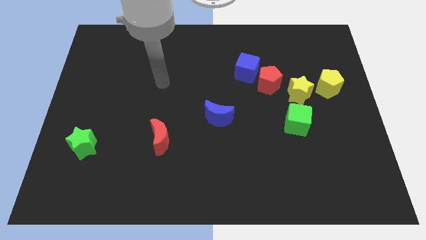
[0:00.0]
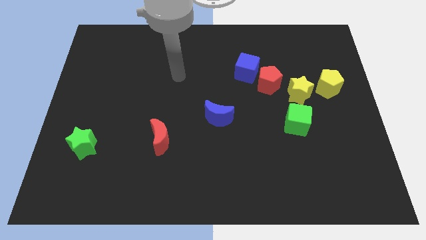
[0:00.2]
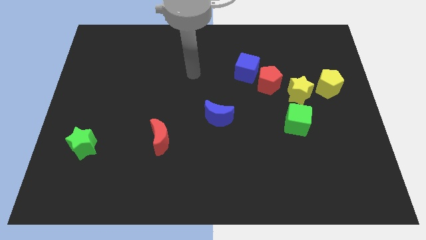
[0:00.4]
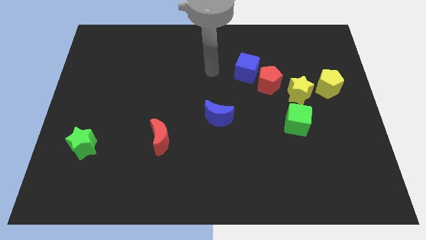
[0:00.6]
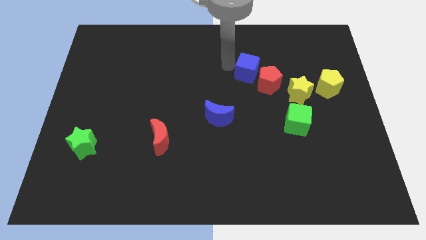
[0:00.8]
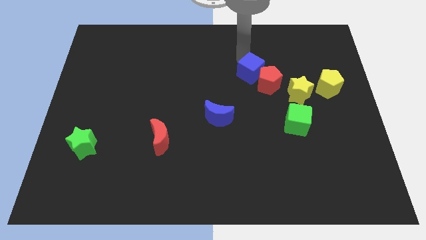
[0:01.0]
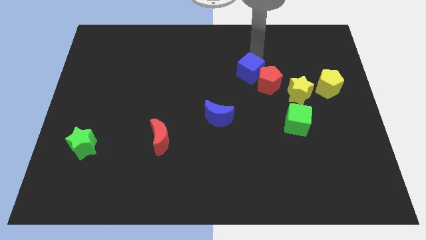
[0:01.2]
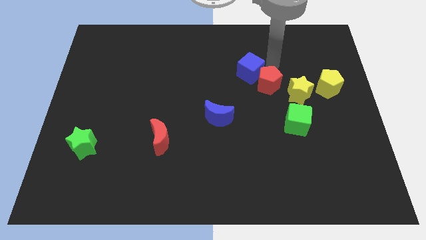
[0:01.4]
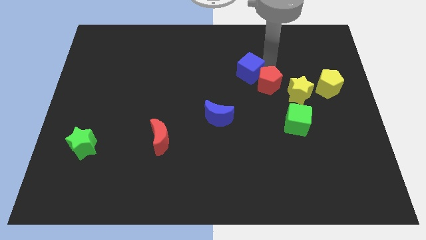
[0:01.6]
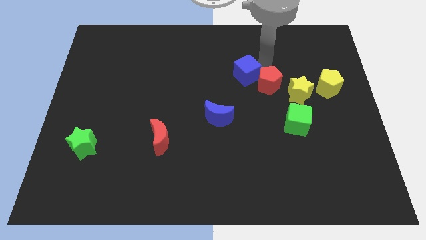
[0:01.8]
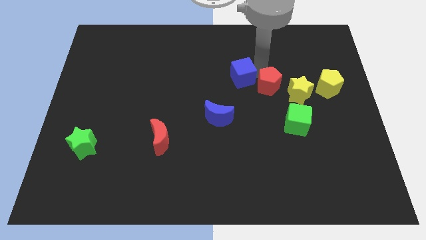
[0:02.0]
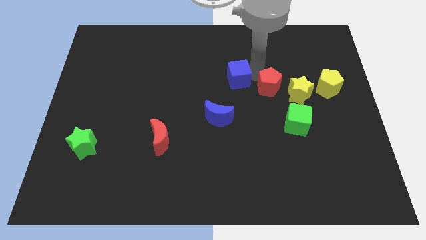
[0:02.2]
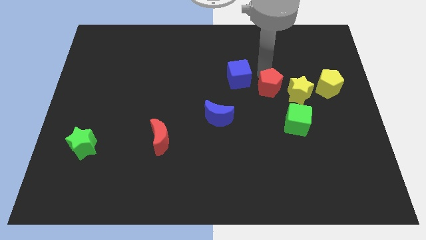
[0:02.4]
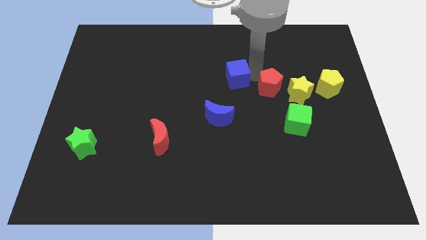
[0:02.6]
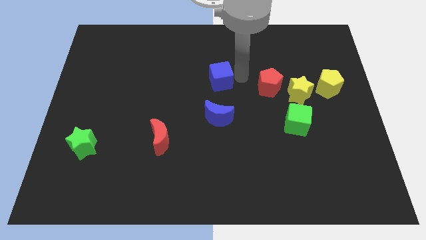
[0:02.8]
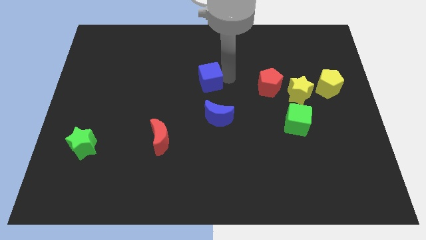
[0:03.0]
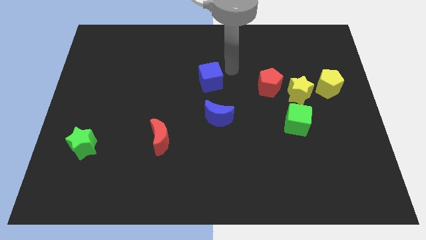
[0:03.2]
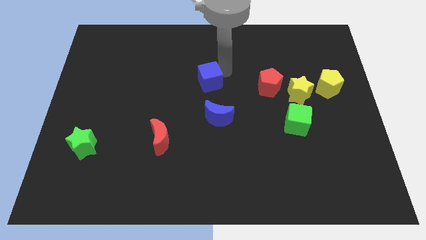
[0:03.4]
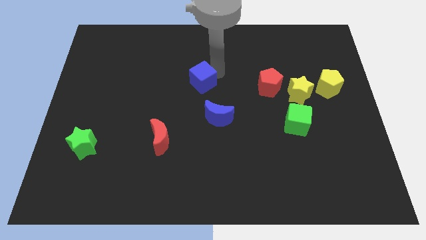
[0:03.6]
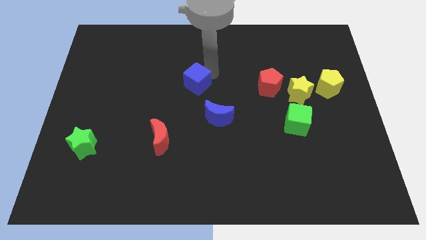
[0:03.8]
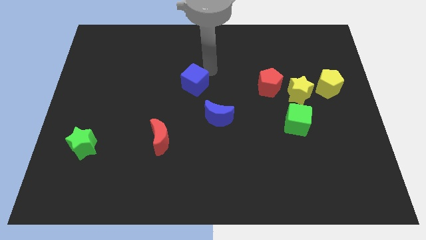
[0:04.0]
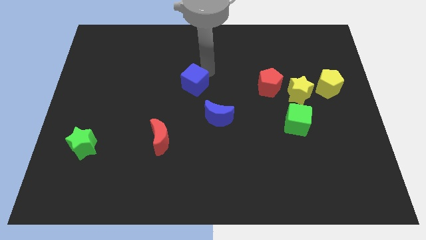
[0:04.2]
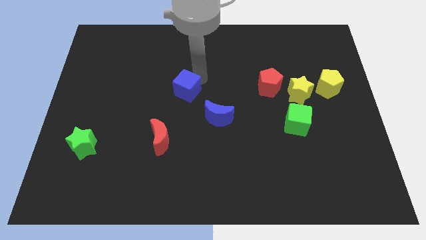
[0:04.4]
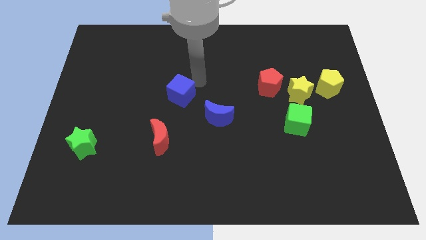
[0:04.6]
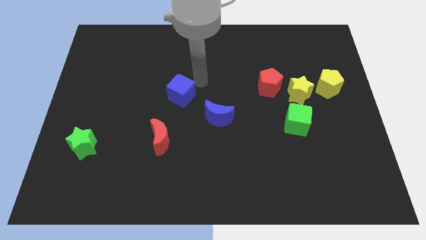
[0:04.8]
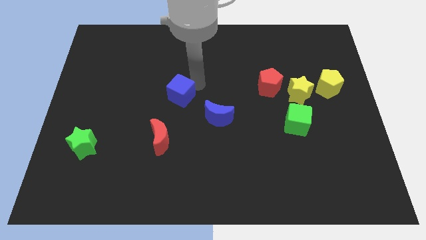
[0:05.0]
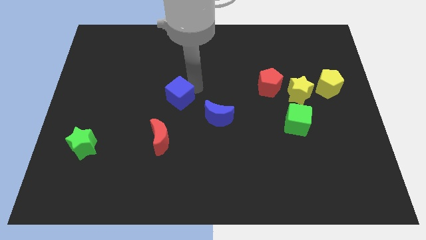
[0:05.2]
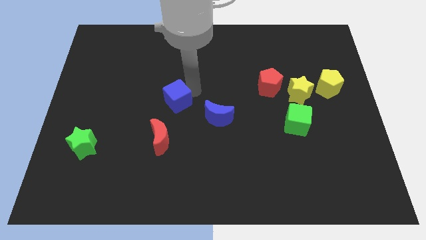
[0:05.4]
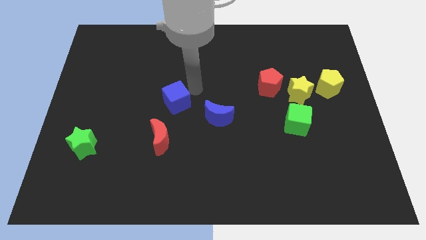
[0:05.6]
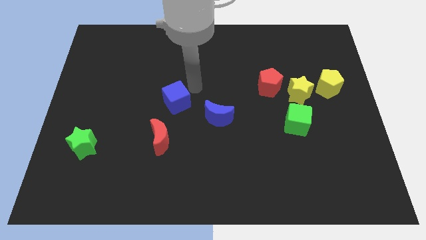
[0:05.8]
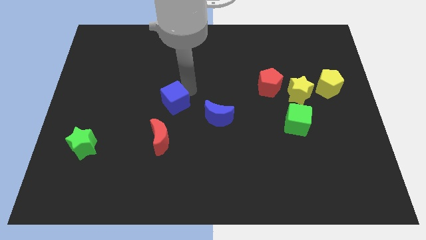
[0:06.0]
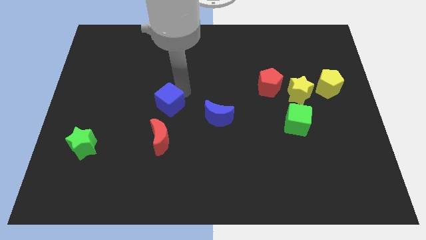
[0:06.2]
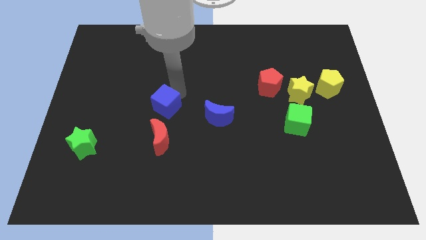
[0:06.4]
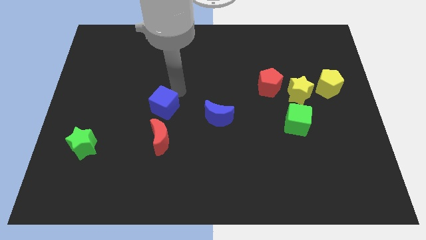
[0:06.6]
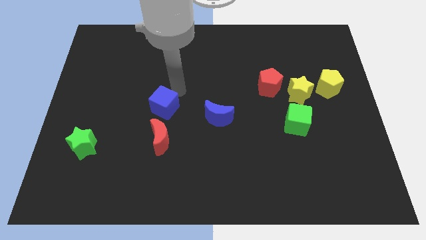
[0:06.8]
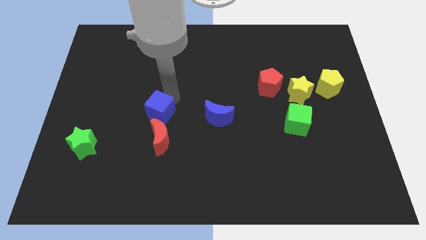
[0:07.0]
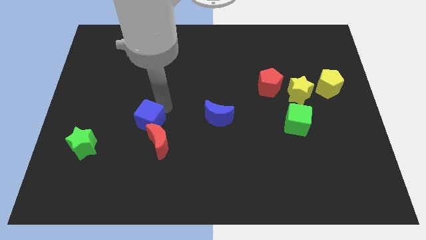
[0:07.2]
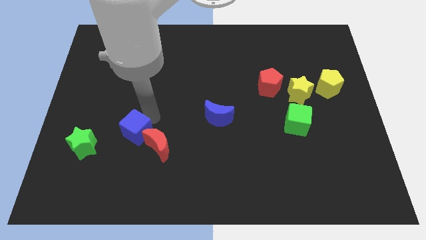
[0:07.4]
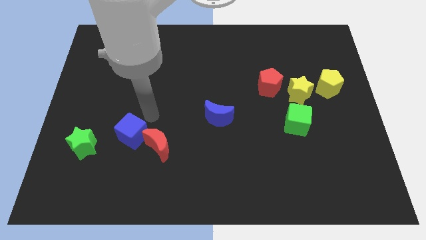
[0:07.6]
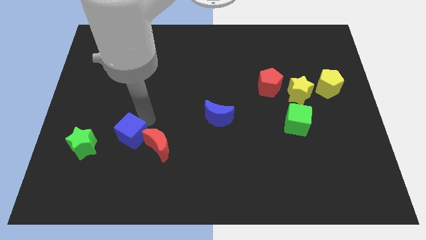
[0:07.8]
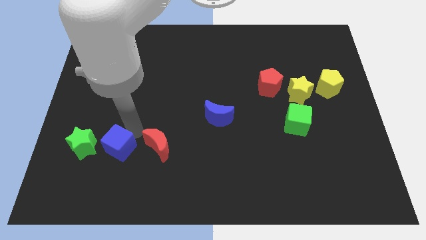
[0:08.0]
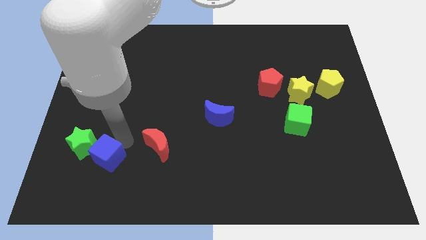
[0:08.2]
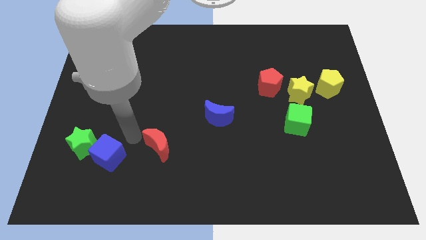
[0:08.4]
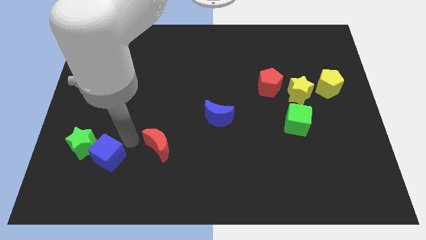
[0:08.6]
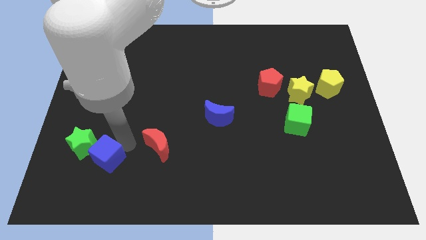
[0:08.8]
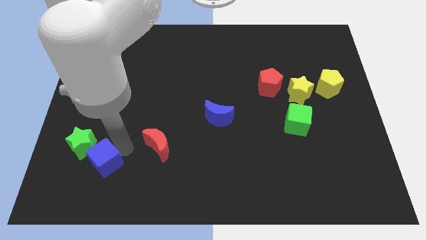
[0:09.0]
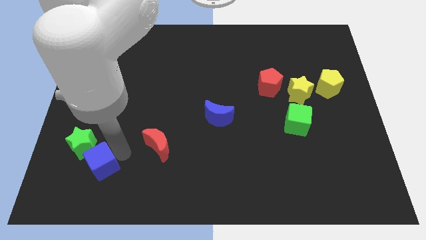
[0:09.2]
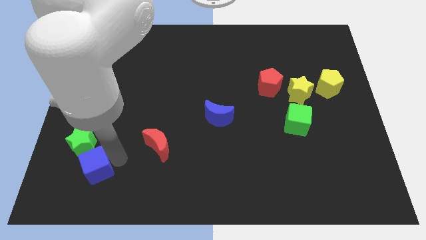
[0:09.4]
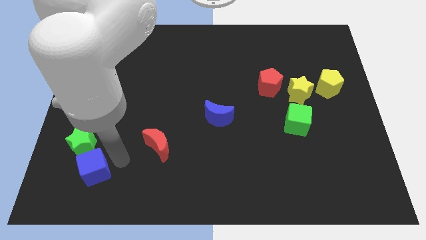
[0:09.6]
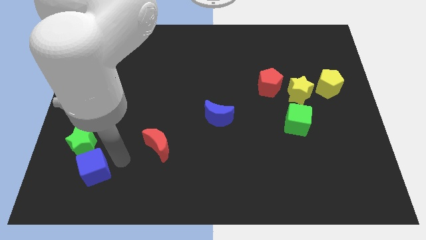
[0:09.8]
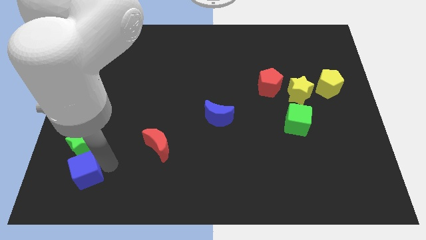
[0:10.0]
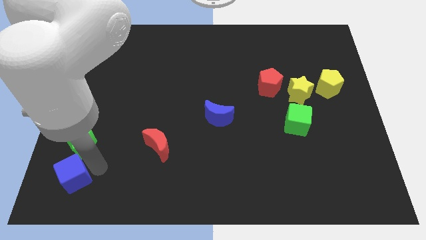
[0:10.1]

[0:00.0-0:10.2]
slide the blue cube to the bottom left

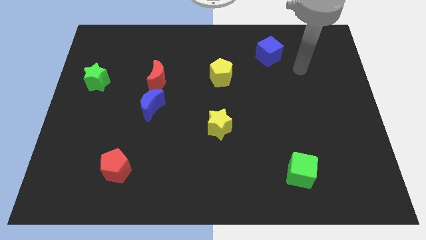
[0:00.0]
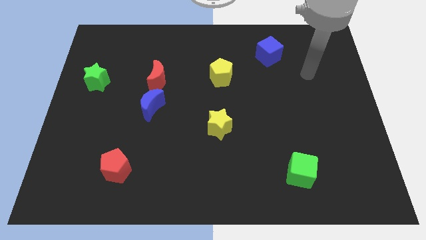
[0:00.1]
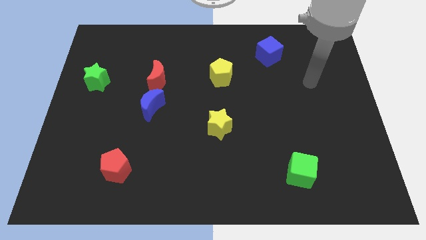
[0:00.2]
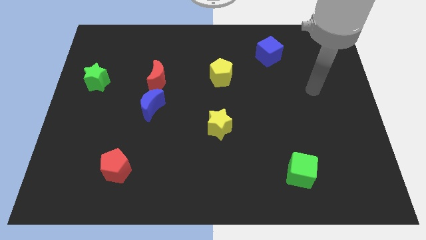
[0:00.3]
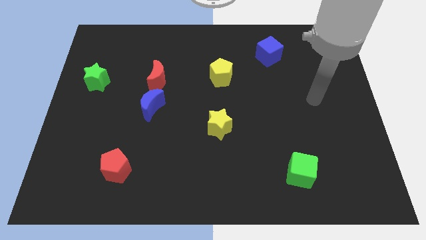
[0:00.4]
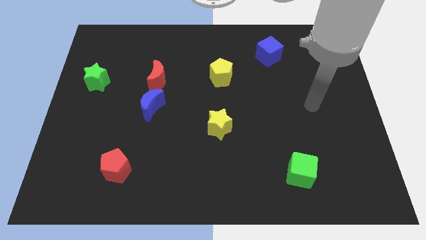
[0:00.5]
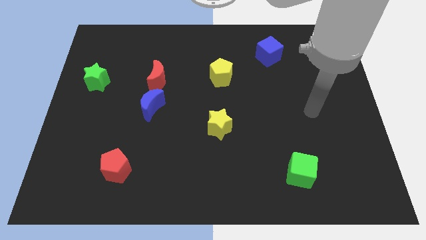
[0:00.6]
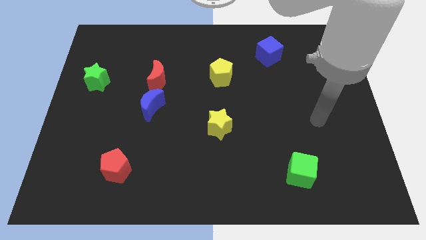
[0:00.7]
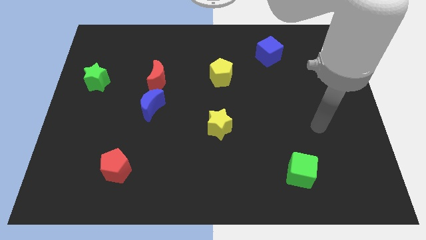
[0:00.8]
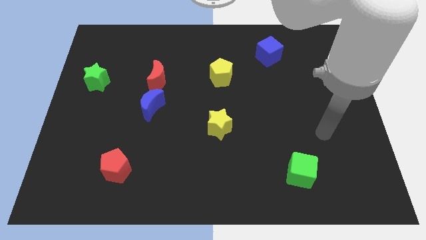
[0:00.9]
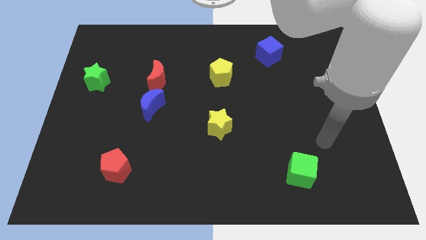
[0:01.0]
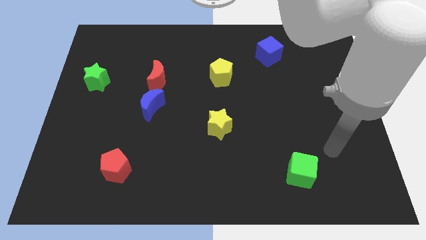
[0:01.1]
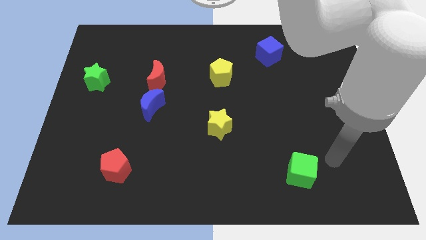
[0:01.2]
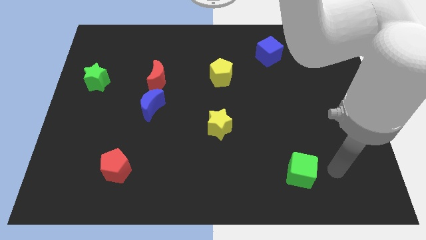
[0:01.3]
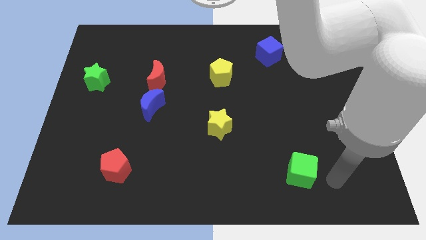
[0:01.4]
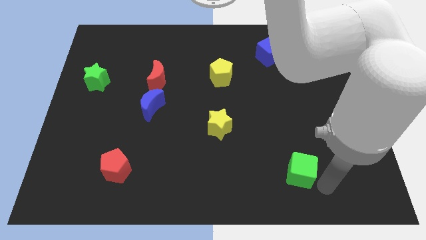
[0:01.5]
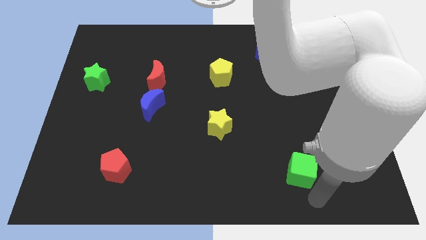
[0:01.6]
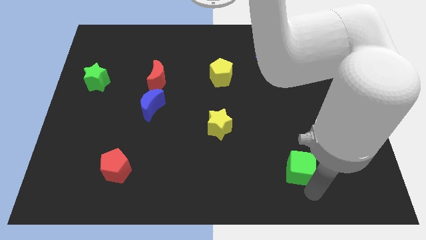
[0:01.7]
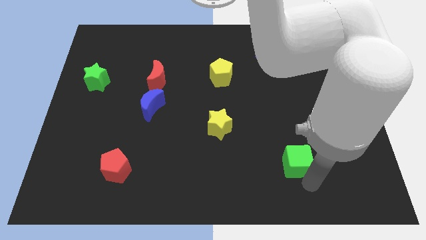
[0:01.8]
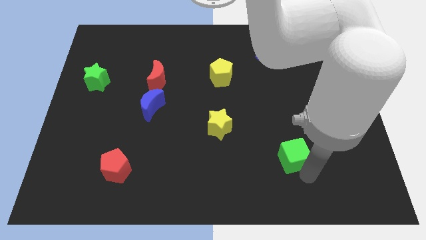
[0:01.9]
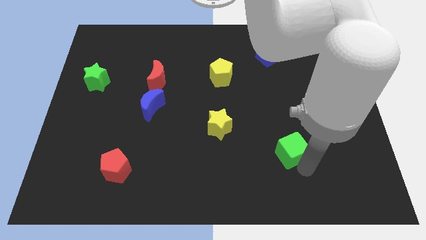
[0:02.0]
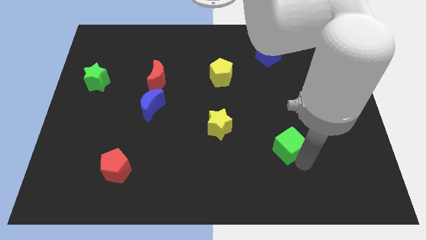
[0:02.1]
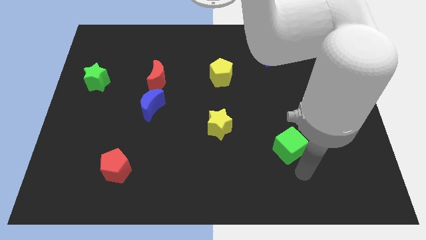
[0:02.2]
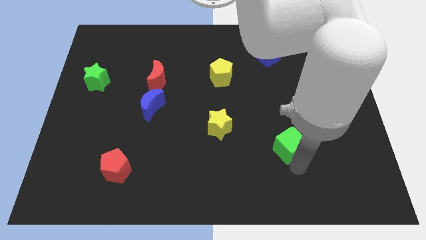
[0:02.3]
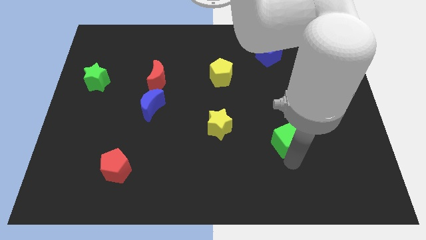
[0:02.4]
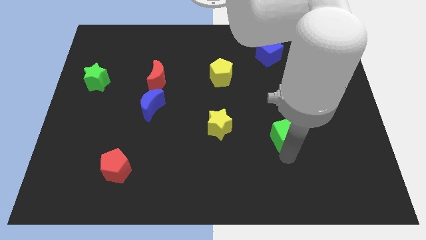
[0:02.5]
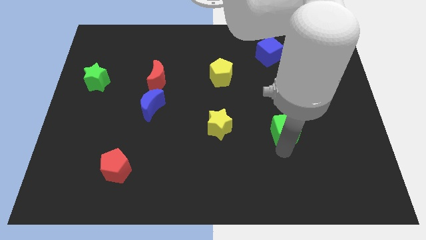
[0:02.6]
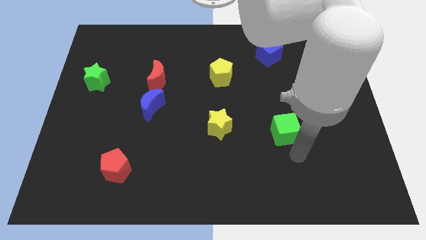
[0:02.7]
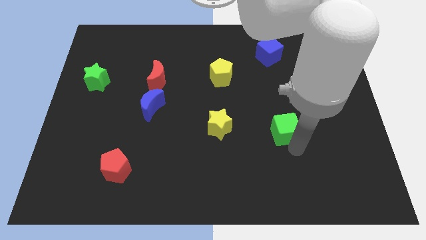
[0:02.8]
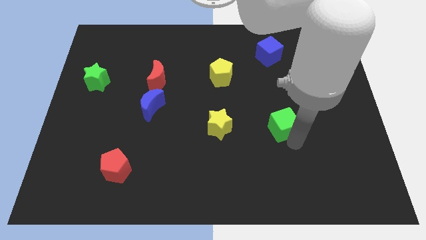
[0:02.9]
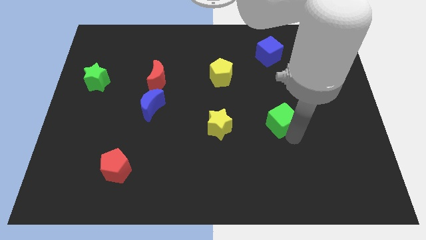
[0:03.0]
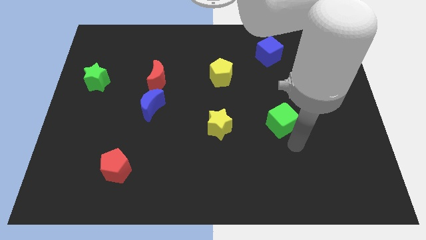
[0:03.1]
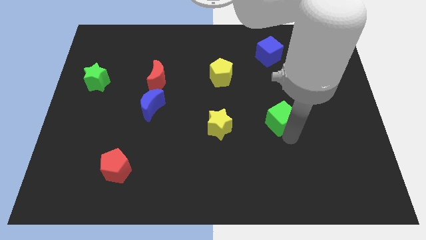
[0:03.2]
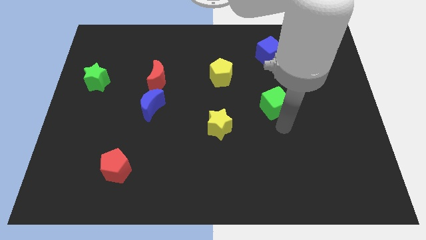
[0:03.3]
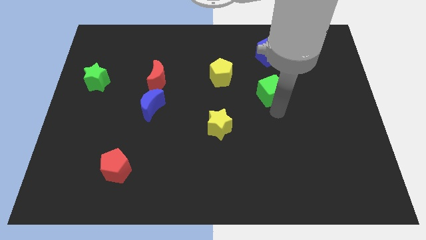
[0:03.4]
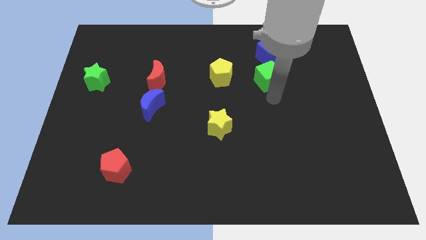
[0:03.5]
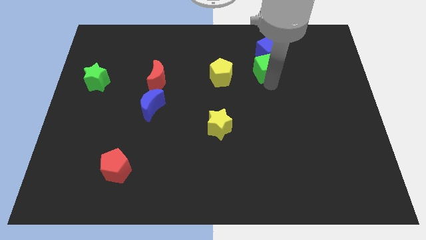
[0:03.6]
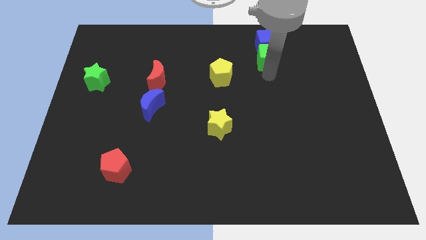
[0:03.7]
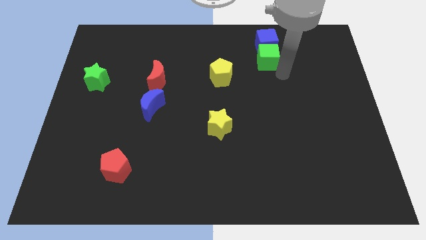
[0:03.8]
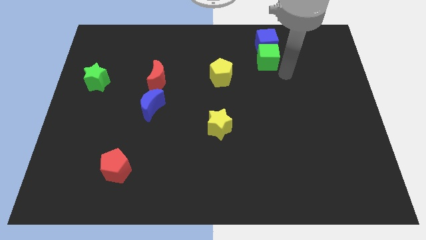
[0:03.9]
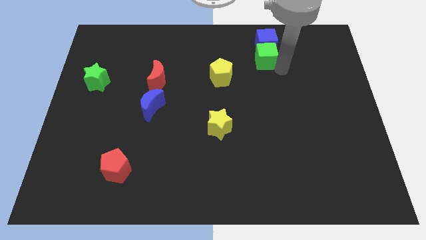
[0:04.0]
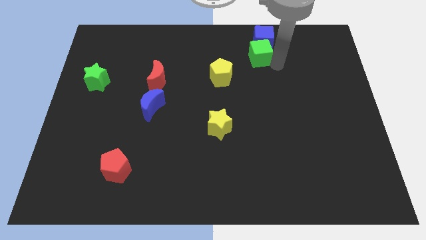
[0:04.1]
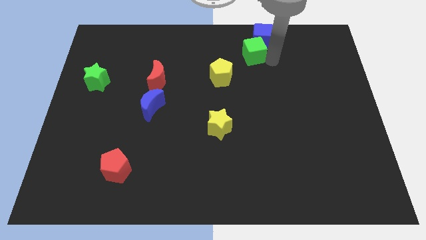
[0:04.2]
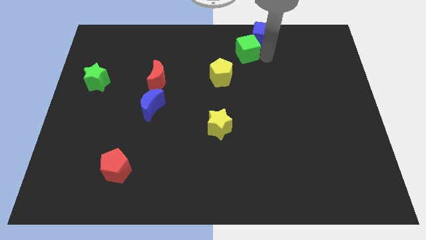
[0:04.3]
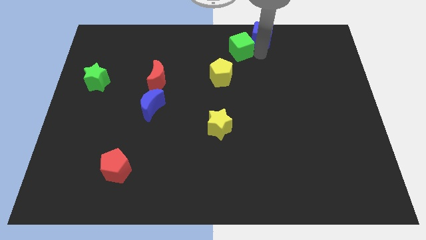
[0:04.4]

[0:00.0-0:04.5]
push the green cube to the top
